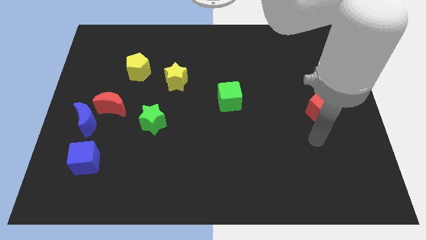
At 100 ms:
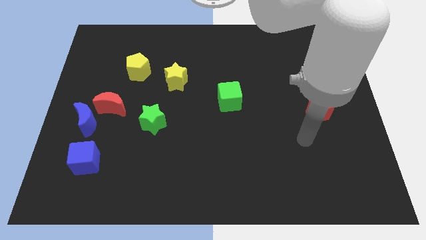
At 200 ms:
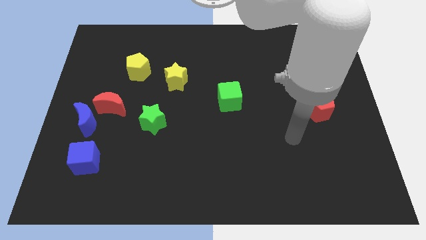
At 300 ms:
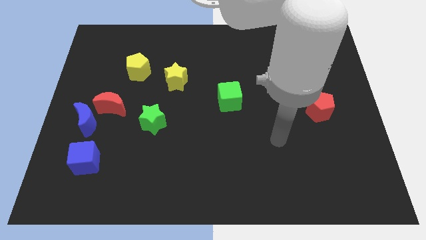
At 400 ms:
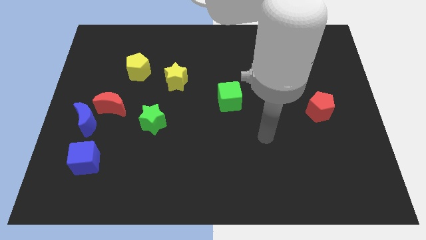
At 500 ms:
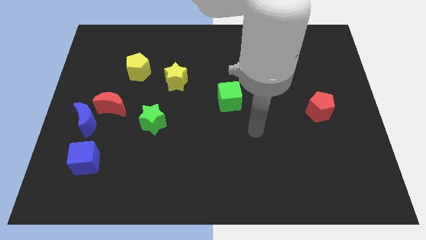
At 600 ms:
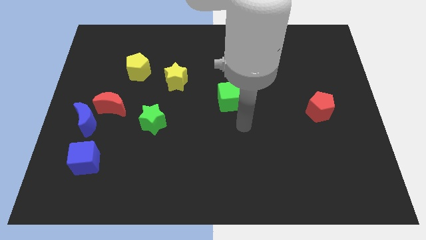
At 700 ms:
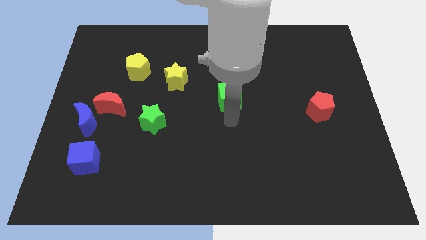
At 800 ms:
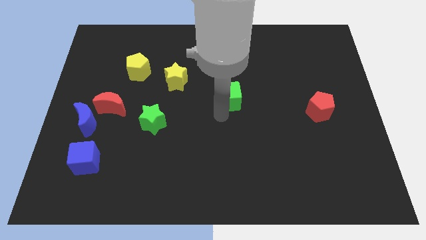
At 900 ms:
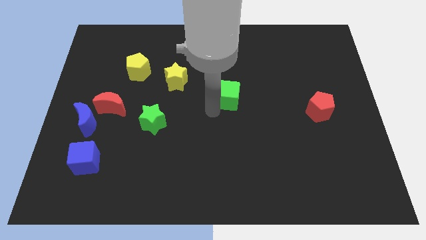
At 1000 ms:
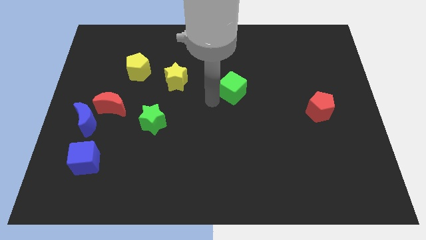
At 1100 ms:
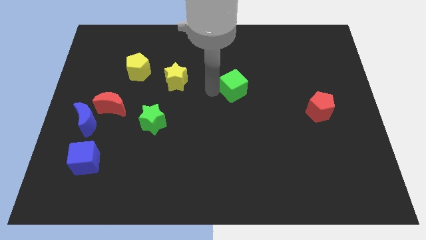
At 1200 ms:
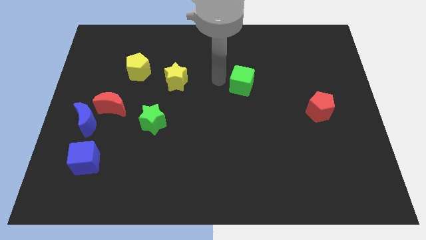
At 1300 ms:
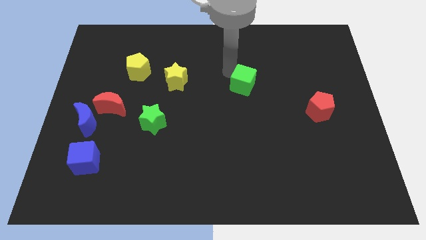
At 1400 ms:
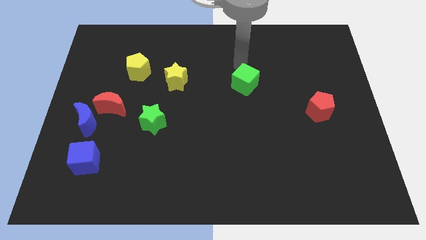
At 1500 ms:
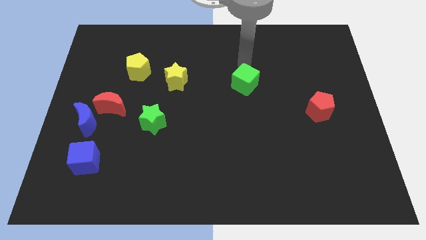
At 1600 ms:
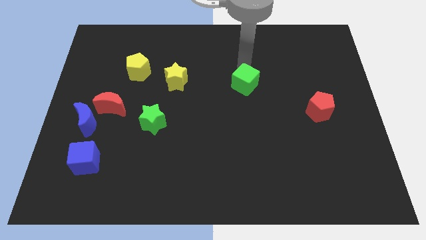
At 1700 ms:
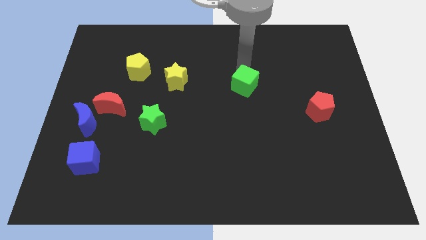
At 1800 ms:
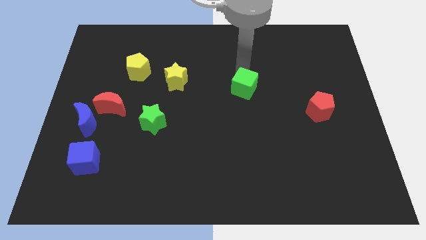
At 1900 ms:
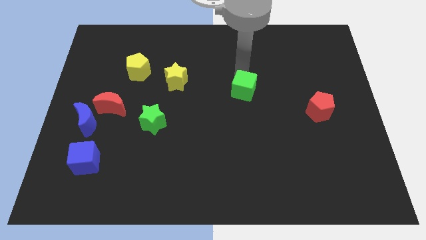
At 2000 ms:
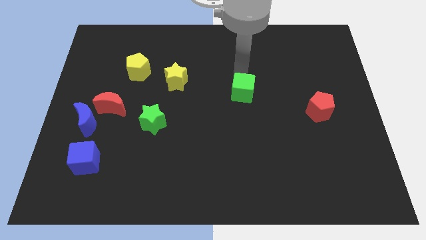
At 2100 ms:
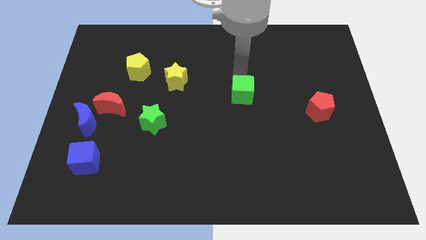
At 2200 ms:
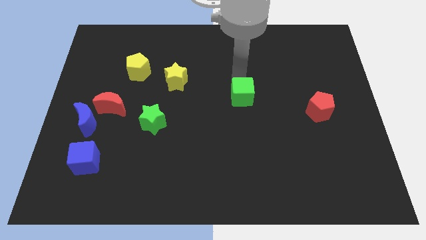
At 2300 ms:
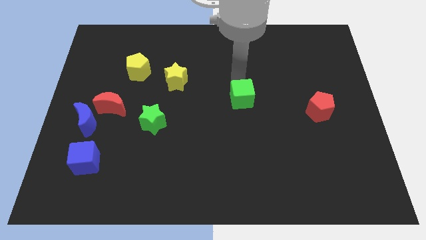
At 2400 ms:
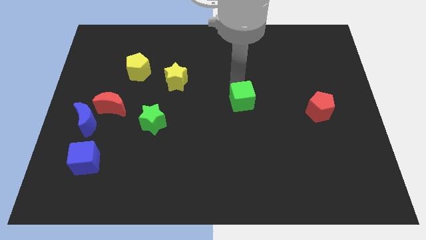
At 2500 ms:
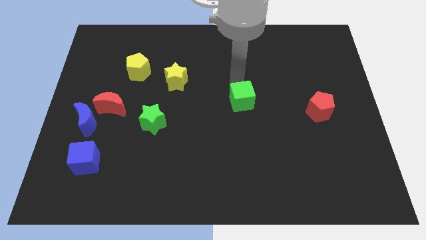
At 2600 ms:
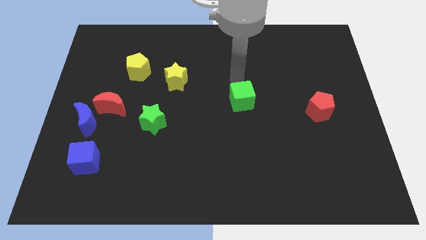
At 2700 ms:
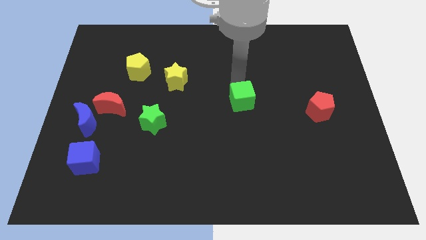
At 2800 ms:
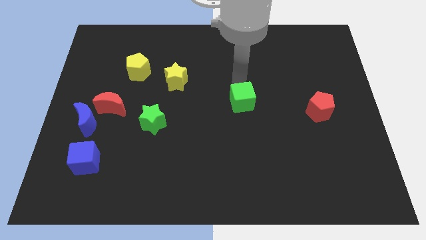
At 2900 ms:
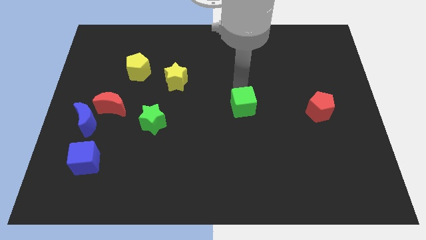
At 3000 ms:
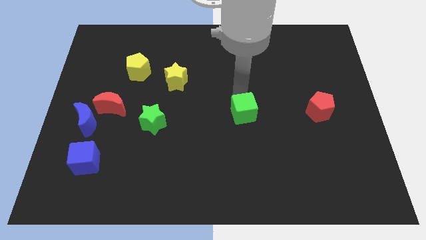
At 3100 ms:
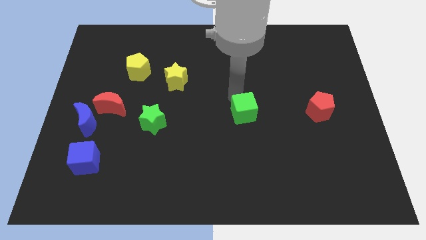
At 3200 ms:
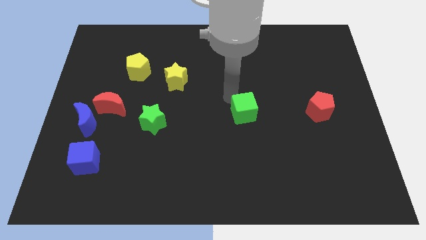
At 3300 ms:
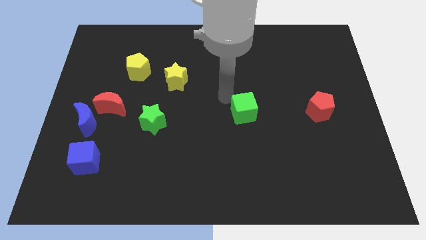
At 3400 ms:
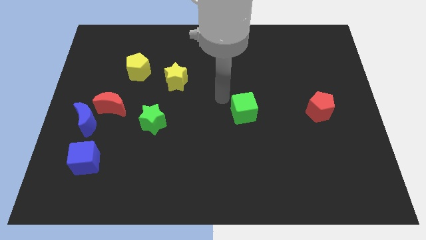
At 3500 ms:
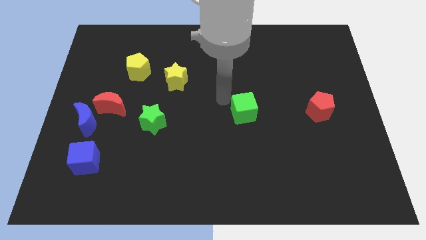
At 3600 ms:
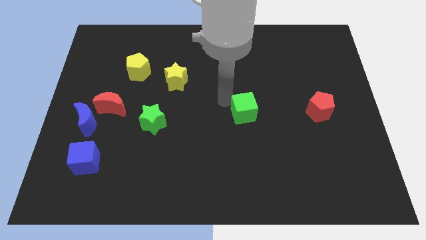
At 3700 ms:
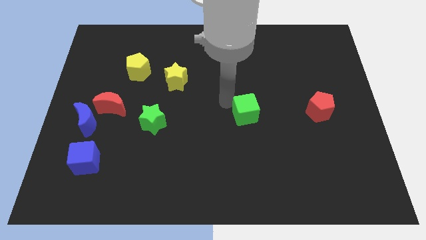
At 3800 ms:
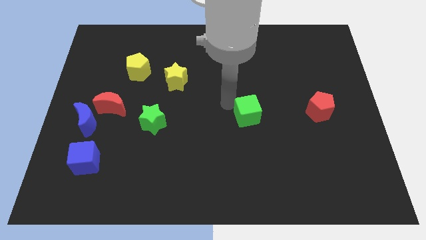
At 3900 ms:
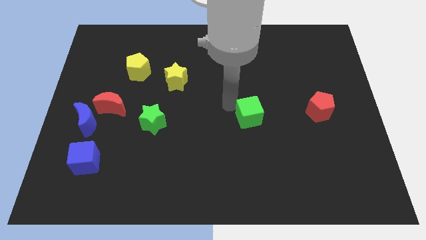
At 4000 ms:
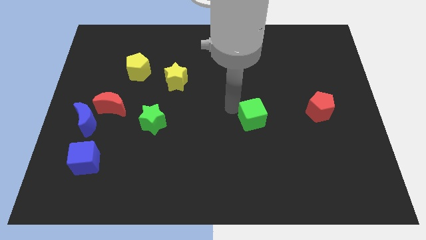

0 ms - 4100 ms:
slightly push the green cube downwards and to the right

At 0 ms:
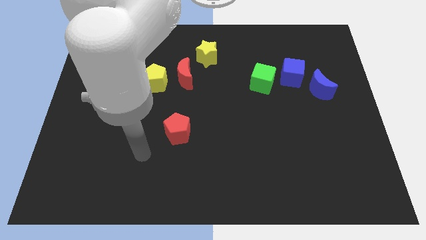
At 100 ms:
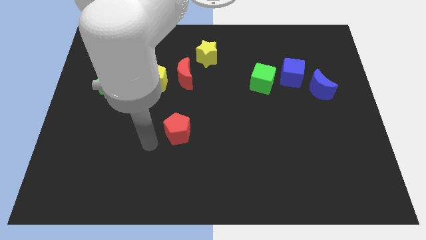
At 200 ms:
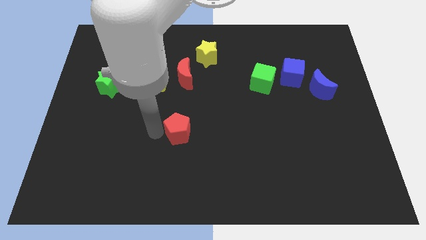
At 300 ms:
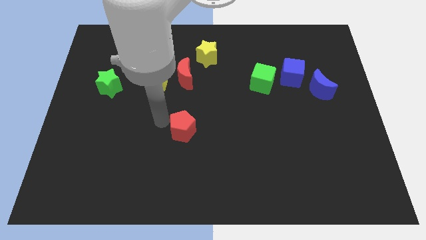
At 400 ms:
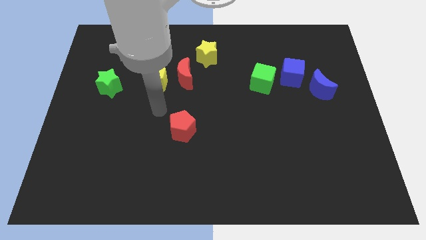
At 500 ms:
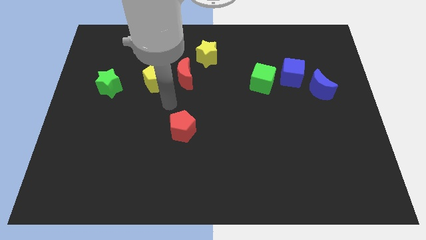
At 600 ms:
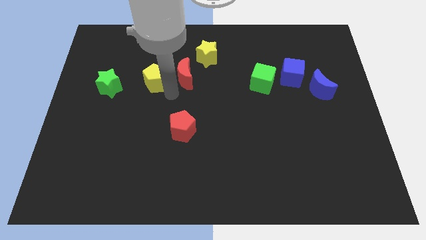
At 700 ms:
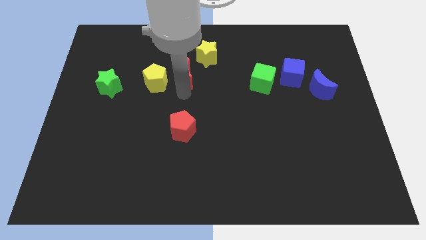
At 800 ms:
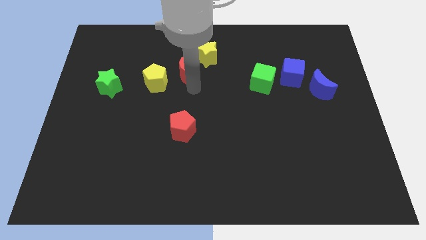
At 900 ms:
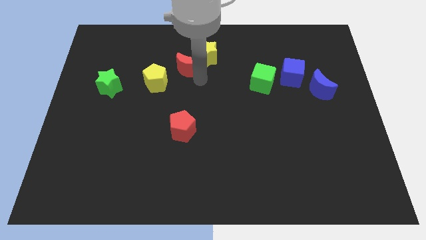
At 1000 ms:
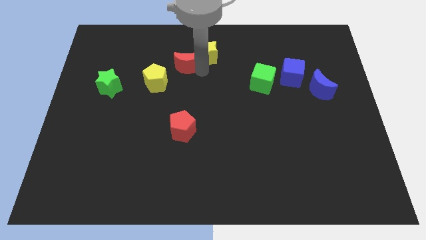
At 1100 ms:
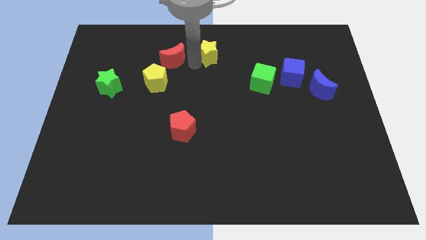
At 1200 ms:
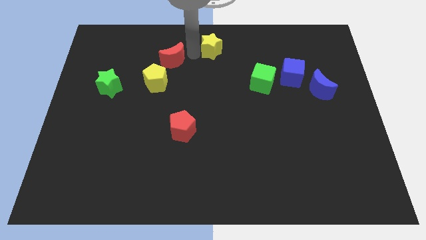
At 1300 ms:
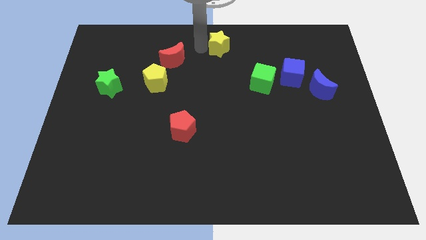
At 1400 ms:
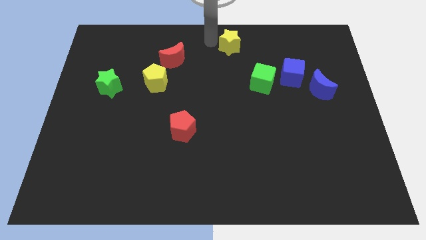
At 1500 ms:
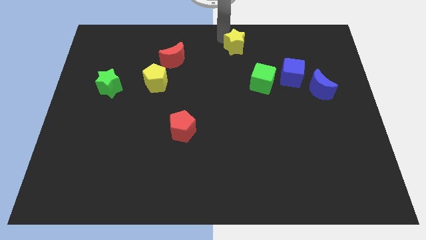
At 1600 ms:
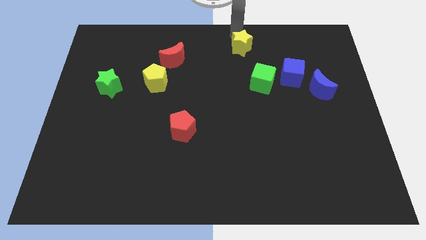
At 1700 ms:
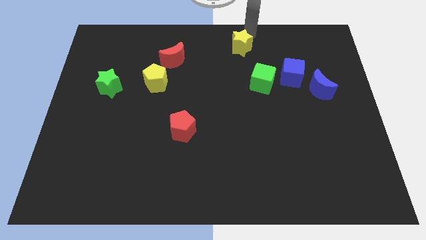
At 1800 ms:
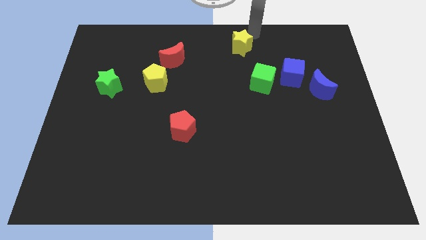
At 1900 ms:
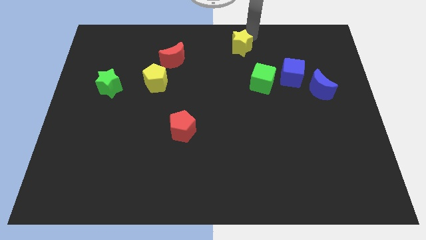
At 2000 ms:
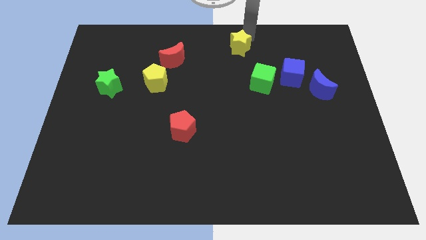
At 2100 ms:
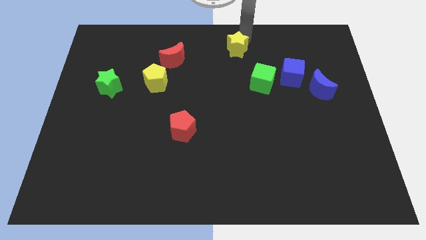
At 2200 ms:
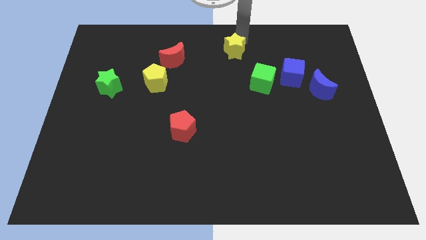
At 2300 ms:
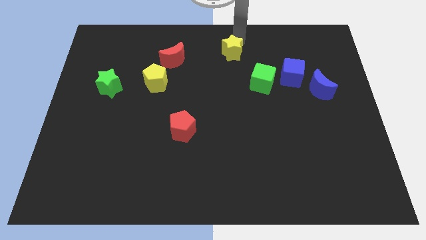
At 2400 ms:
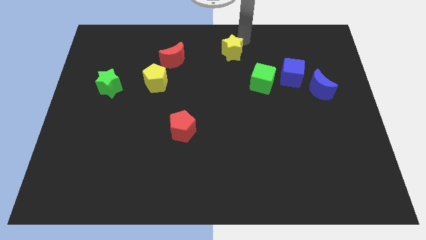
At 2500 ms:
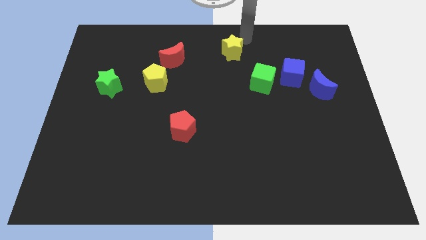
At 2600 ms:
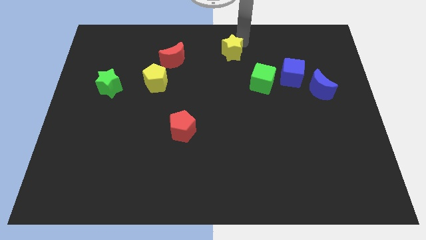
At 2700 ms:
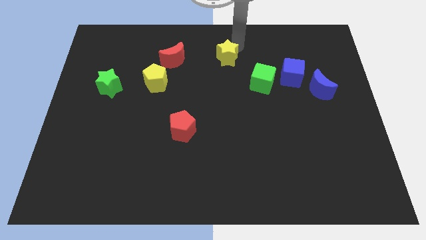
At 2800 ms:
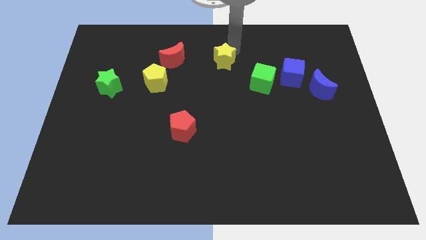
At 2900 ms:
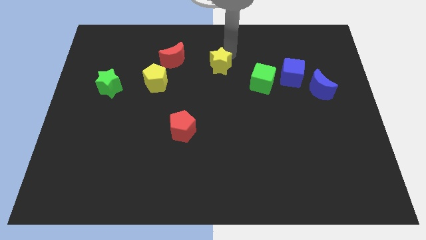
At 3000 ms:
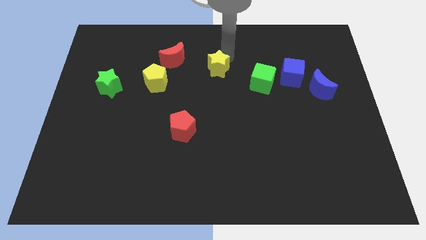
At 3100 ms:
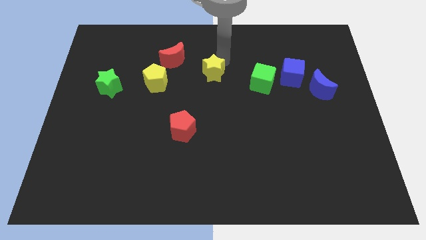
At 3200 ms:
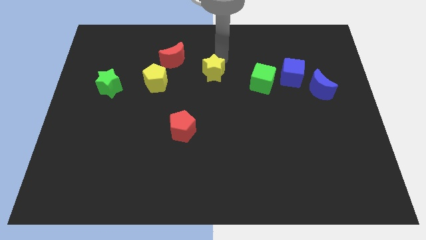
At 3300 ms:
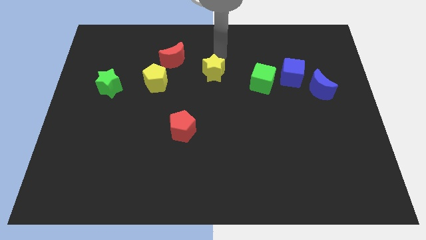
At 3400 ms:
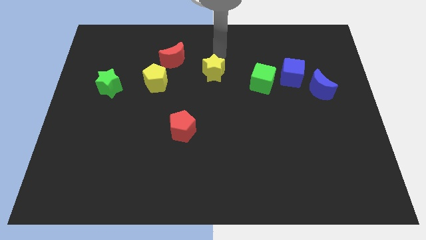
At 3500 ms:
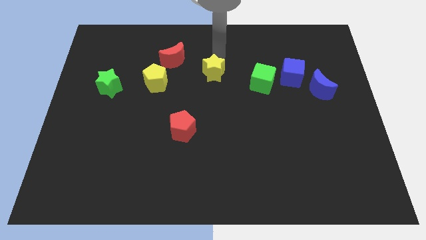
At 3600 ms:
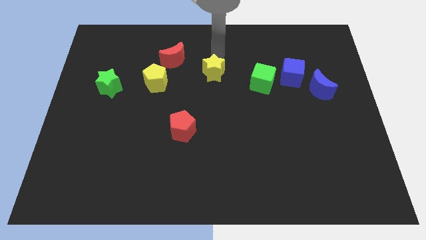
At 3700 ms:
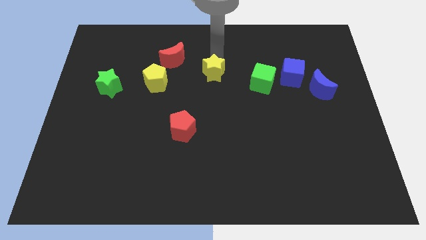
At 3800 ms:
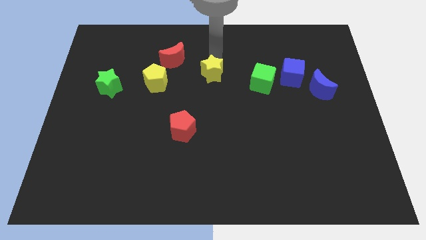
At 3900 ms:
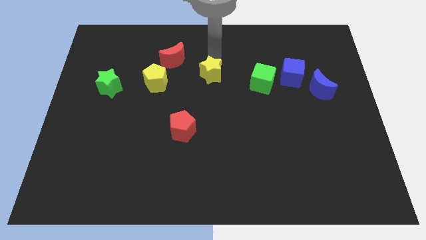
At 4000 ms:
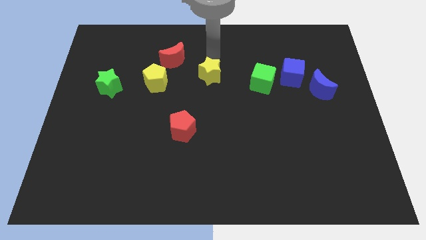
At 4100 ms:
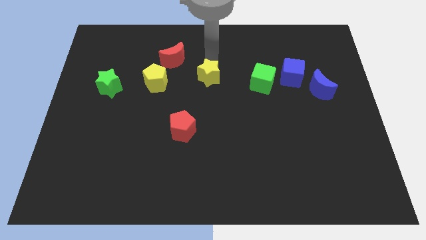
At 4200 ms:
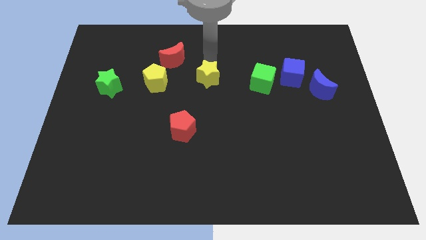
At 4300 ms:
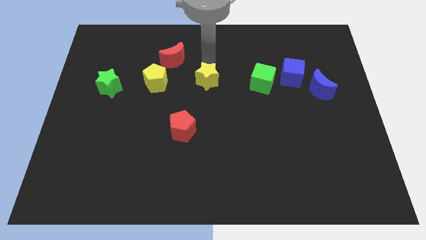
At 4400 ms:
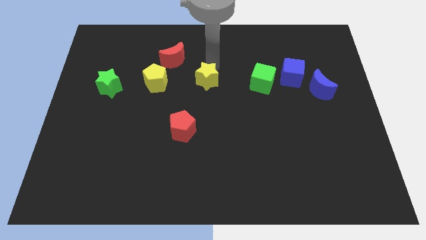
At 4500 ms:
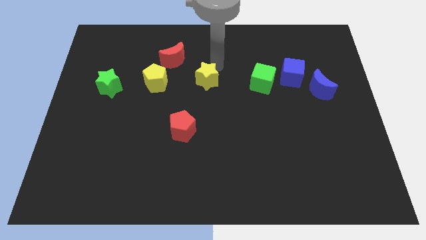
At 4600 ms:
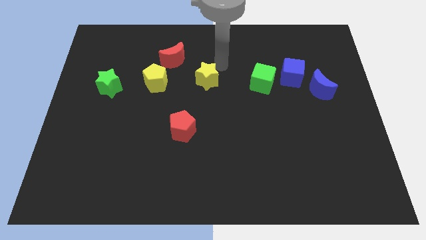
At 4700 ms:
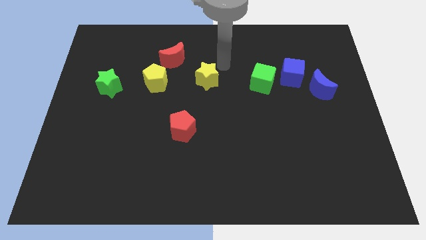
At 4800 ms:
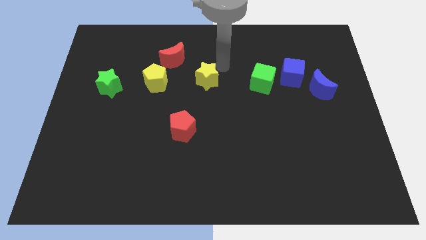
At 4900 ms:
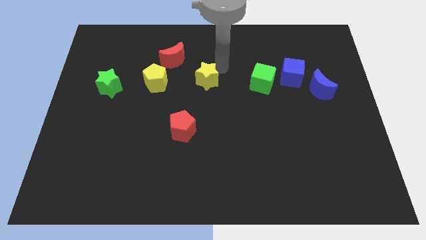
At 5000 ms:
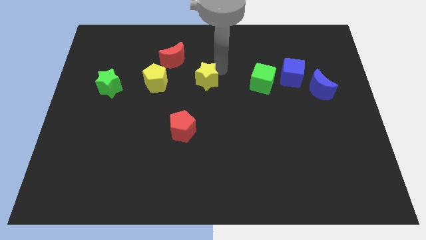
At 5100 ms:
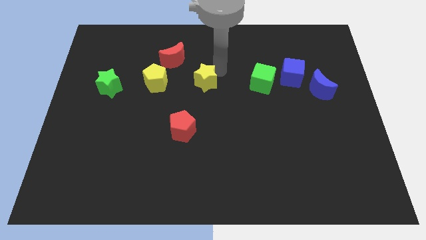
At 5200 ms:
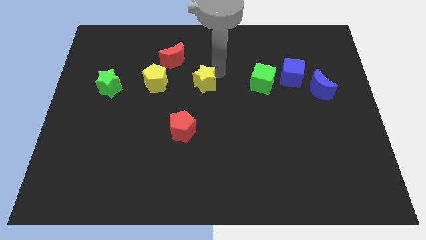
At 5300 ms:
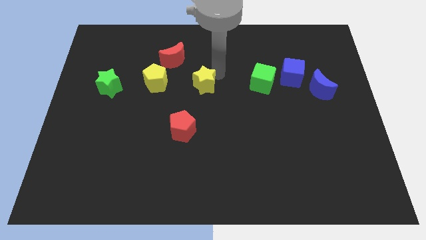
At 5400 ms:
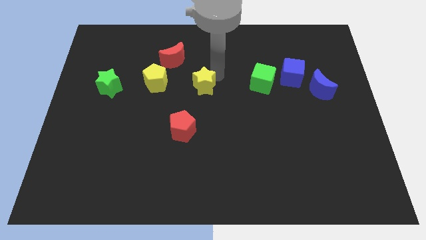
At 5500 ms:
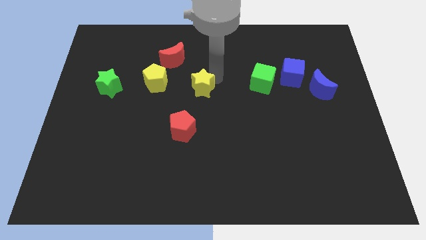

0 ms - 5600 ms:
slightly push the yellow star diagonally downwards and left
